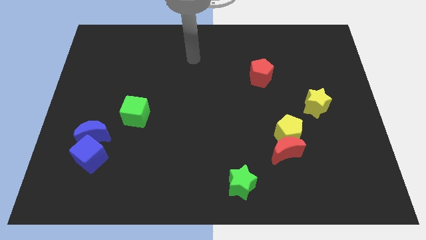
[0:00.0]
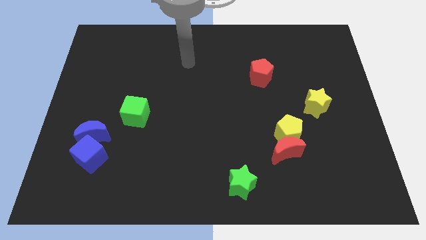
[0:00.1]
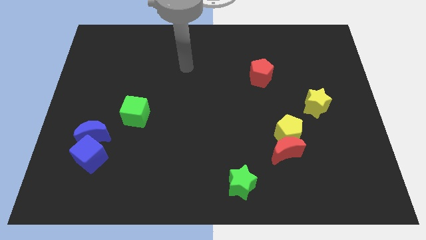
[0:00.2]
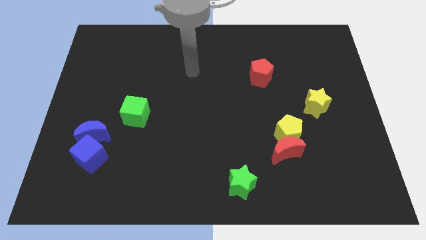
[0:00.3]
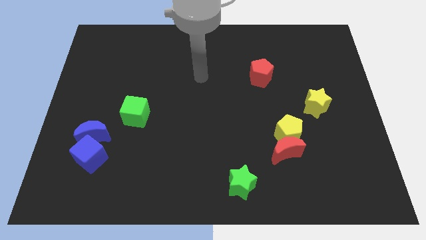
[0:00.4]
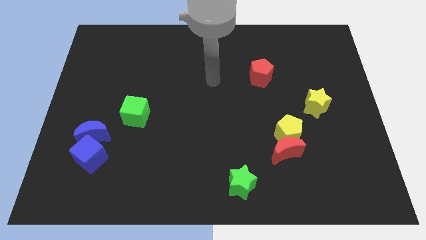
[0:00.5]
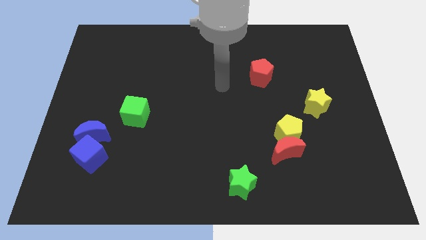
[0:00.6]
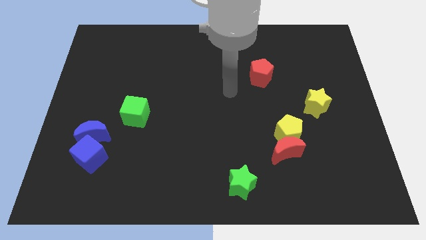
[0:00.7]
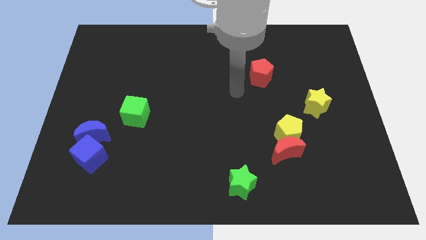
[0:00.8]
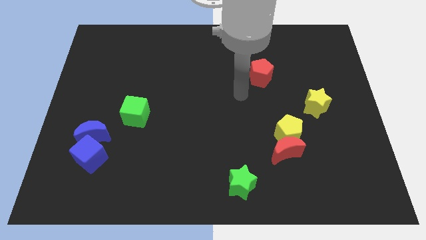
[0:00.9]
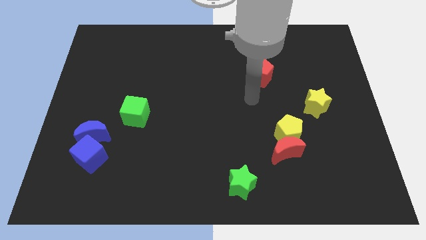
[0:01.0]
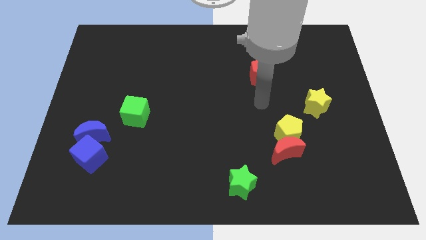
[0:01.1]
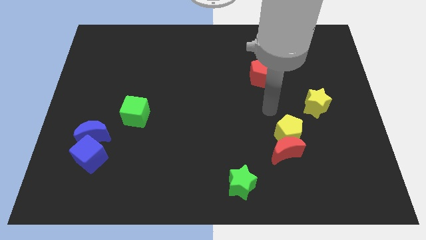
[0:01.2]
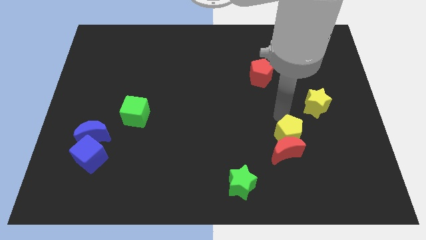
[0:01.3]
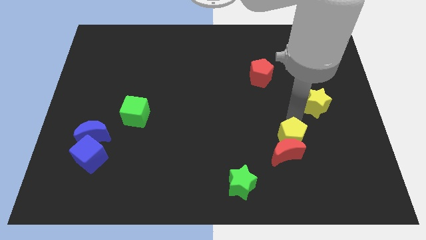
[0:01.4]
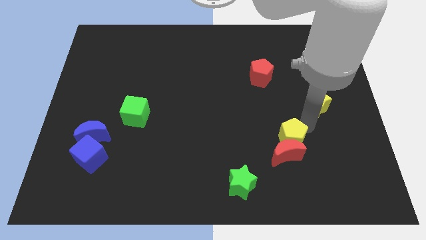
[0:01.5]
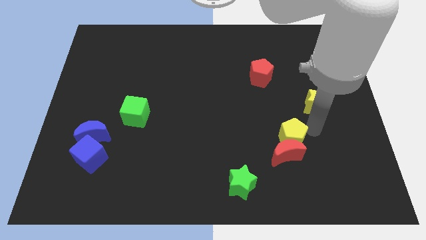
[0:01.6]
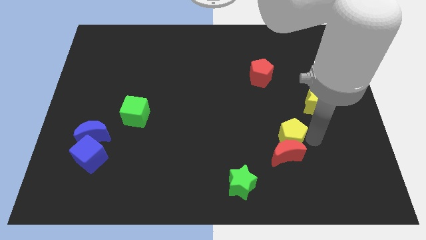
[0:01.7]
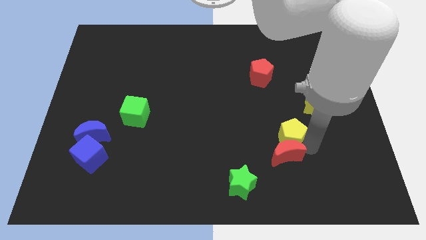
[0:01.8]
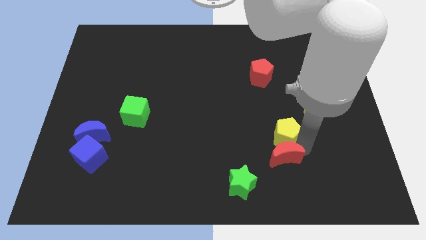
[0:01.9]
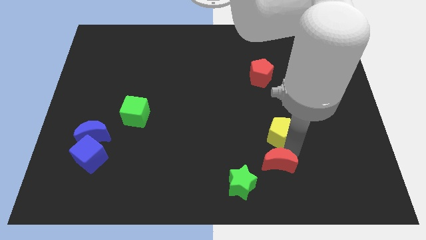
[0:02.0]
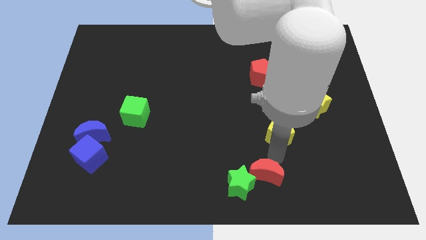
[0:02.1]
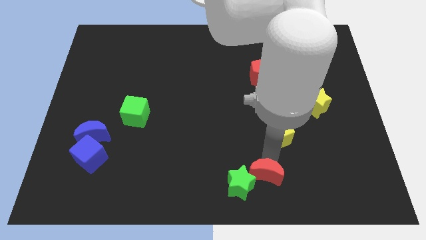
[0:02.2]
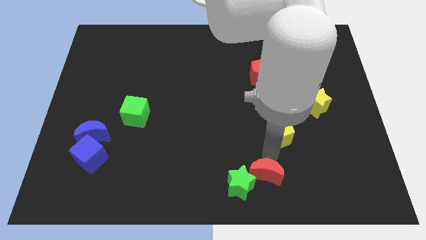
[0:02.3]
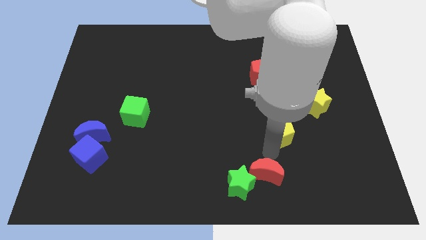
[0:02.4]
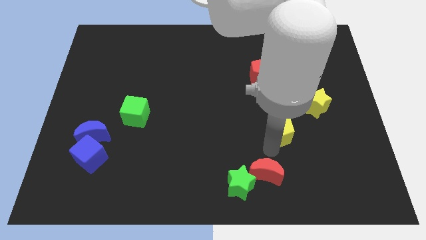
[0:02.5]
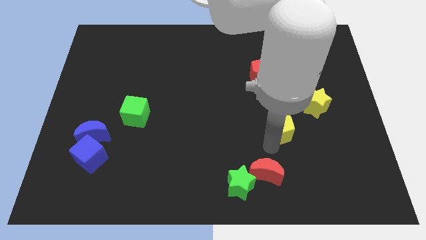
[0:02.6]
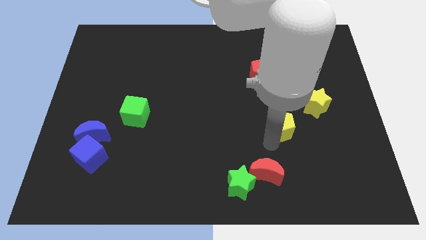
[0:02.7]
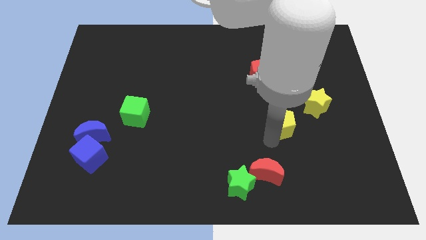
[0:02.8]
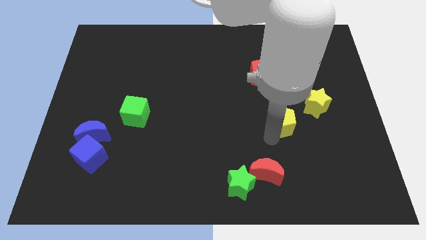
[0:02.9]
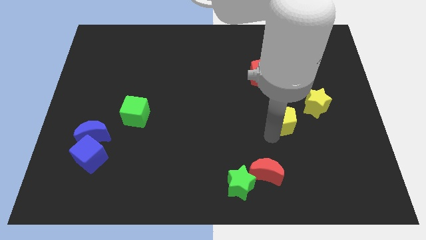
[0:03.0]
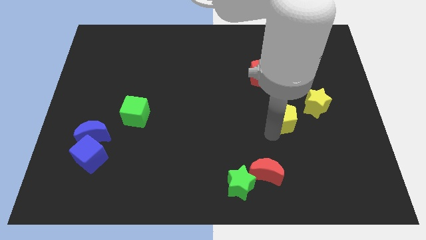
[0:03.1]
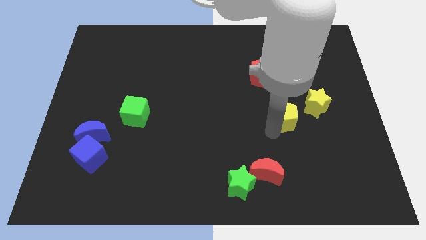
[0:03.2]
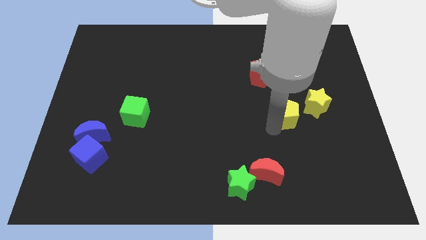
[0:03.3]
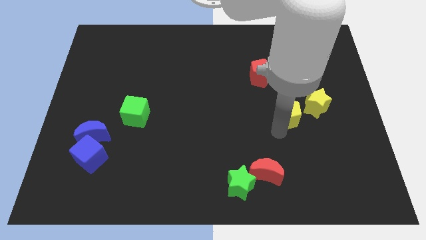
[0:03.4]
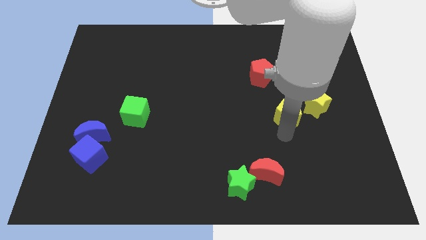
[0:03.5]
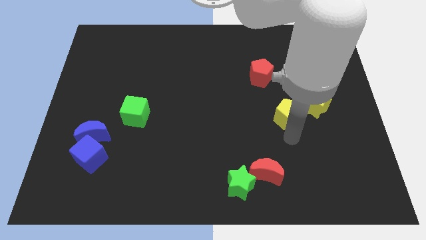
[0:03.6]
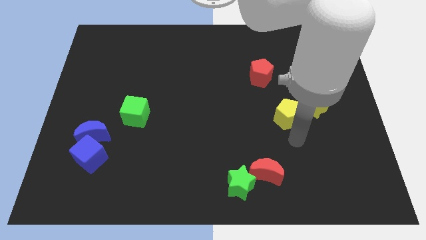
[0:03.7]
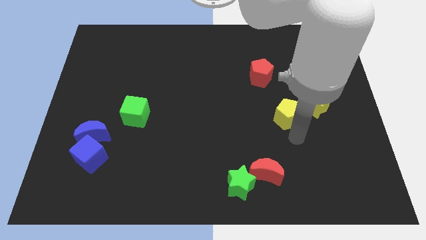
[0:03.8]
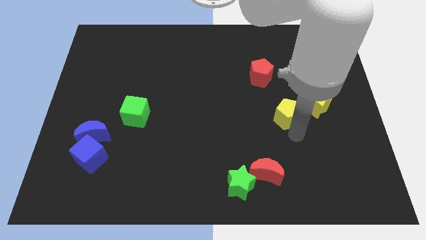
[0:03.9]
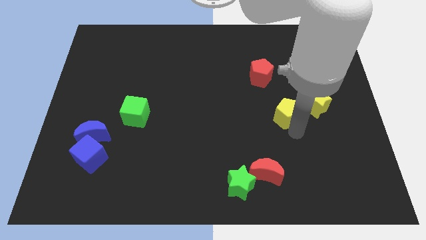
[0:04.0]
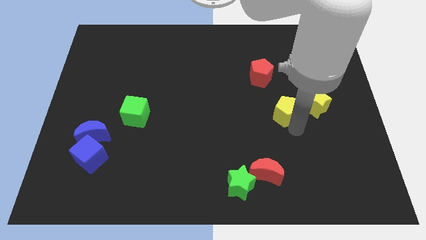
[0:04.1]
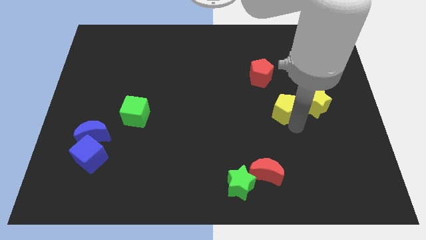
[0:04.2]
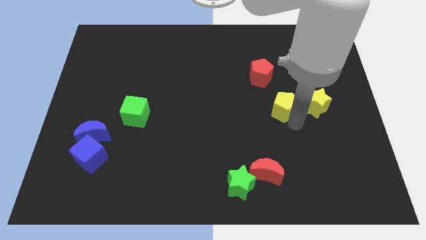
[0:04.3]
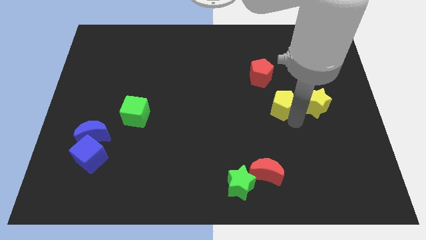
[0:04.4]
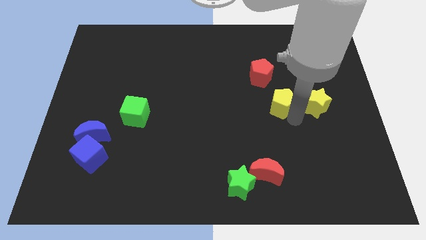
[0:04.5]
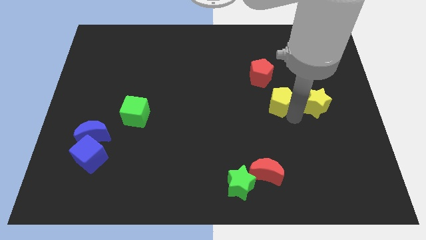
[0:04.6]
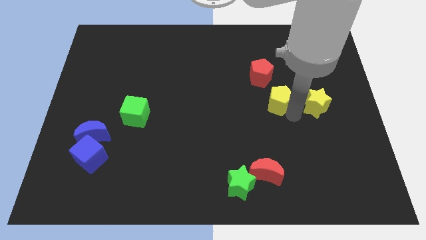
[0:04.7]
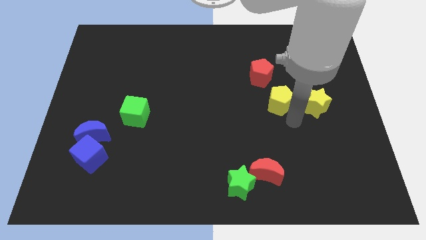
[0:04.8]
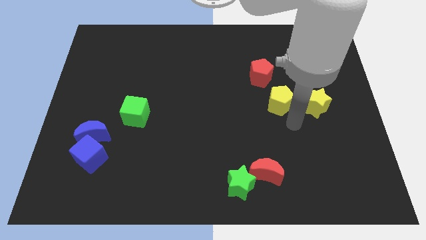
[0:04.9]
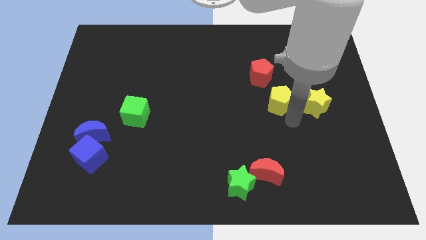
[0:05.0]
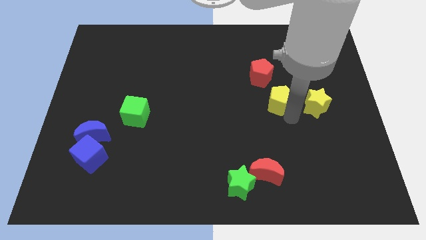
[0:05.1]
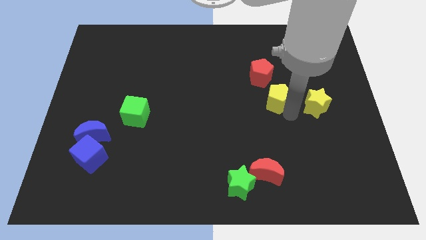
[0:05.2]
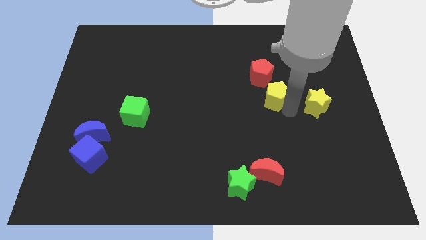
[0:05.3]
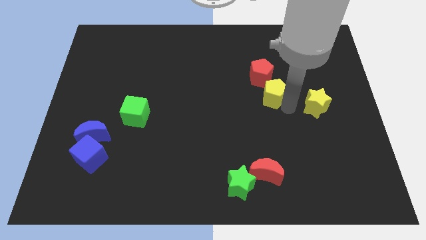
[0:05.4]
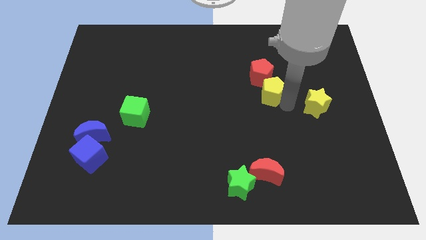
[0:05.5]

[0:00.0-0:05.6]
move the yellow pentagon to the red pentagon

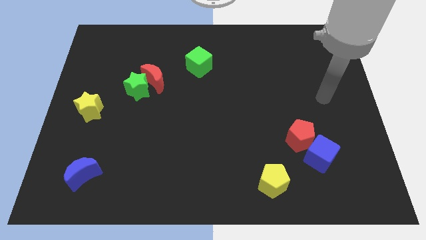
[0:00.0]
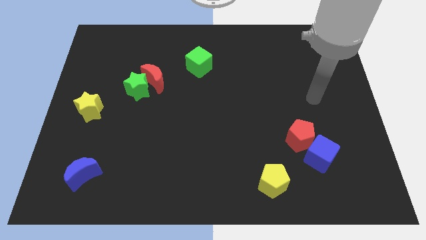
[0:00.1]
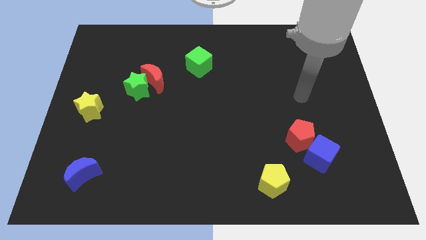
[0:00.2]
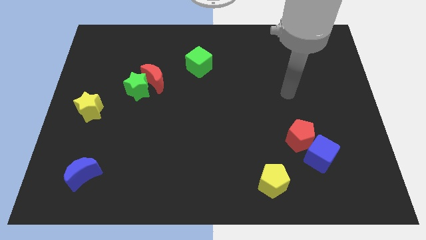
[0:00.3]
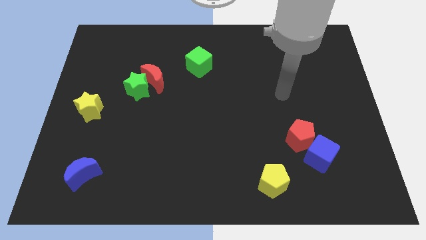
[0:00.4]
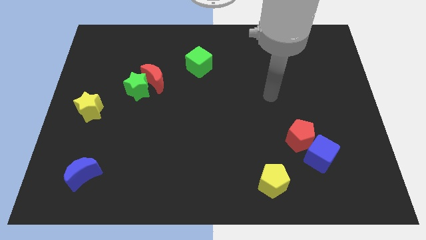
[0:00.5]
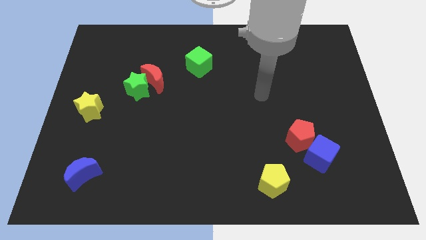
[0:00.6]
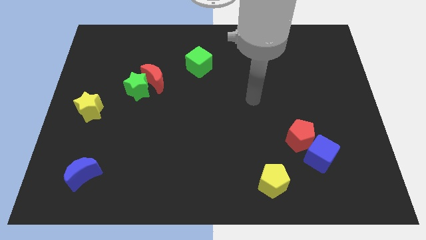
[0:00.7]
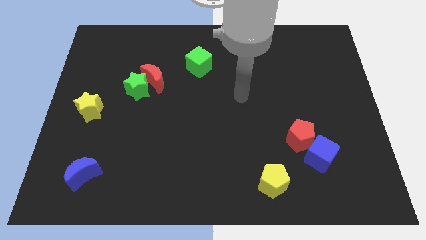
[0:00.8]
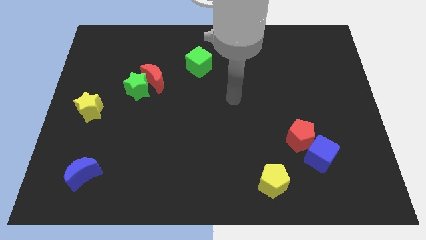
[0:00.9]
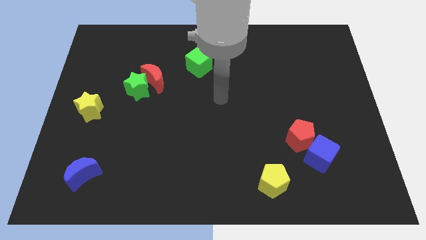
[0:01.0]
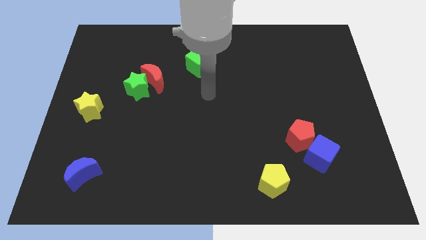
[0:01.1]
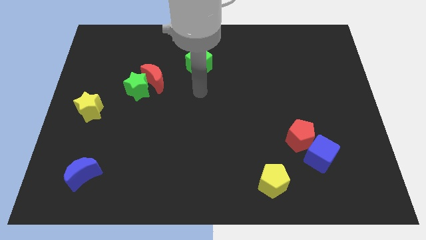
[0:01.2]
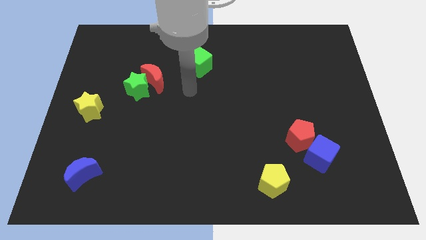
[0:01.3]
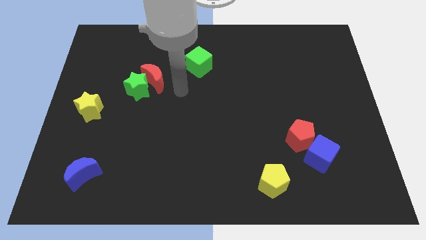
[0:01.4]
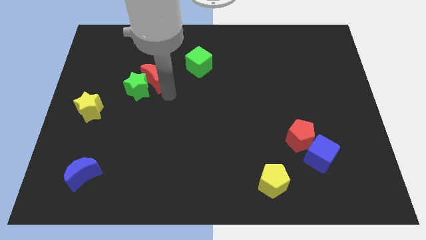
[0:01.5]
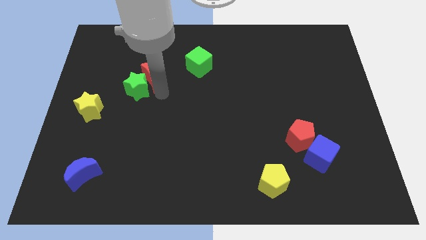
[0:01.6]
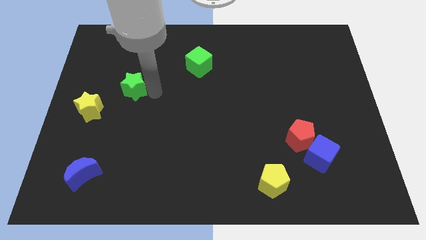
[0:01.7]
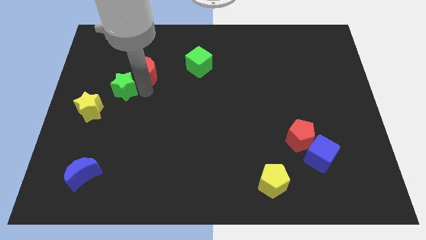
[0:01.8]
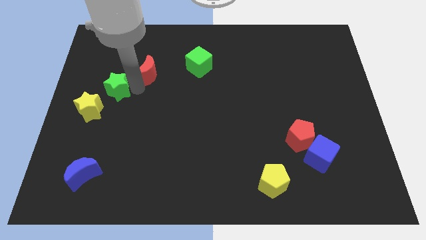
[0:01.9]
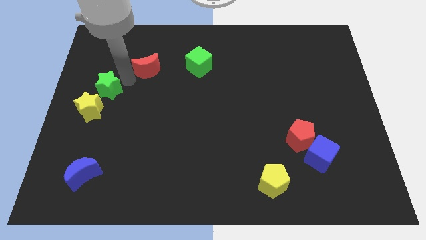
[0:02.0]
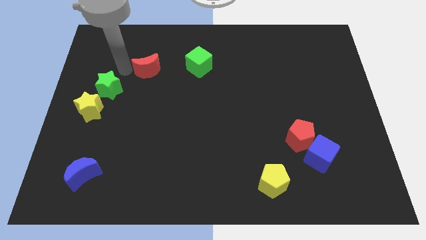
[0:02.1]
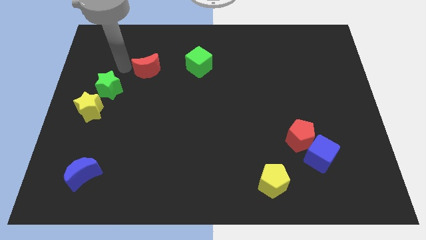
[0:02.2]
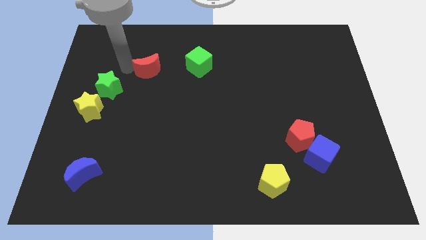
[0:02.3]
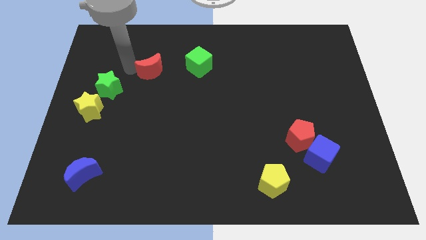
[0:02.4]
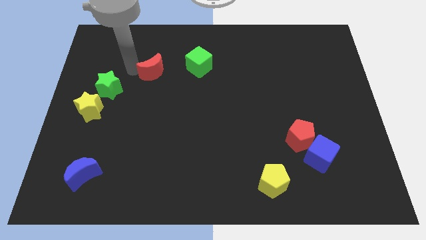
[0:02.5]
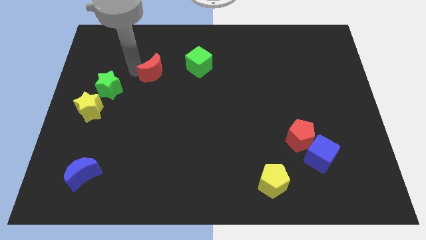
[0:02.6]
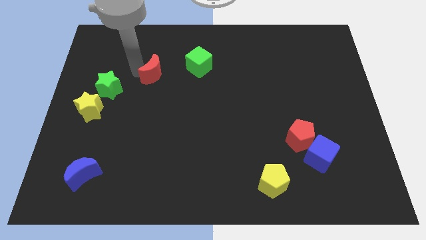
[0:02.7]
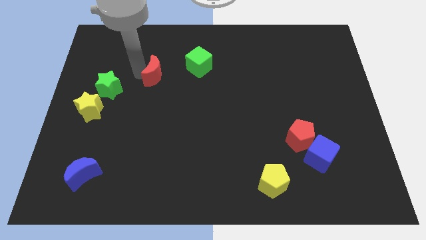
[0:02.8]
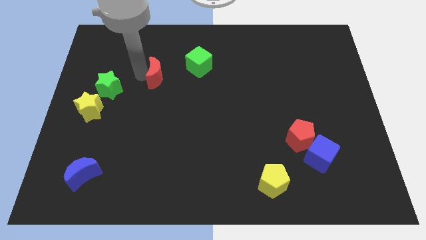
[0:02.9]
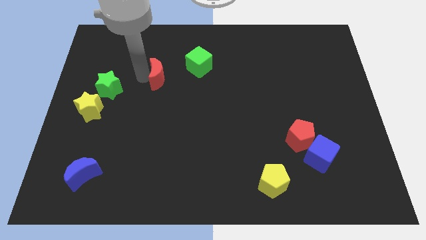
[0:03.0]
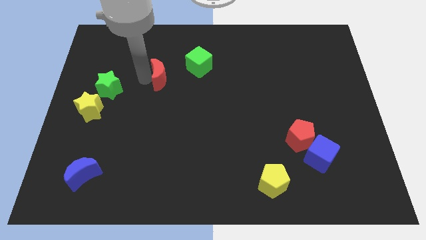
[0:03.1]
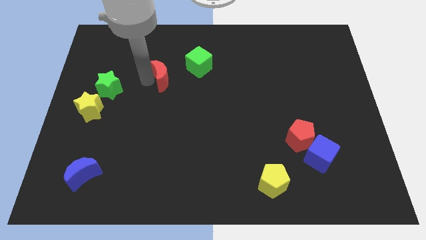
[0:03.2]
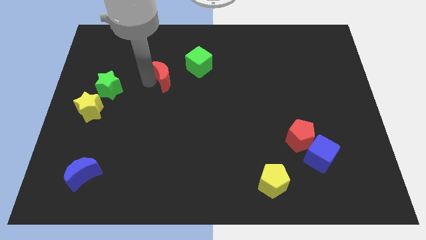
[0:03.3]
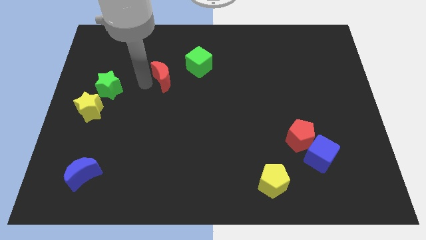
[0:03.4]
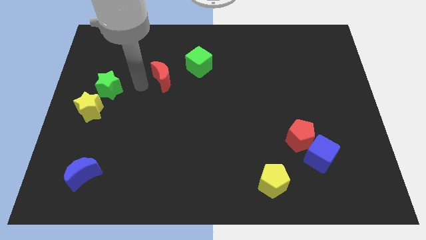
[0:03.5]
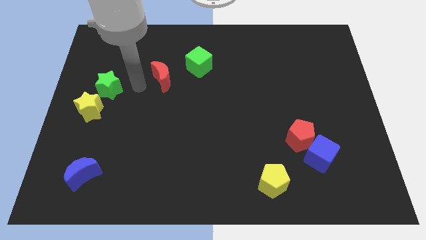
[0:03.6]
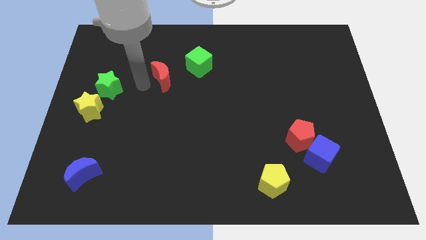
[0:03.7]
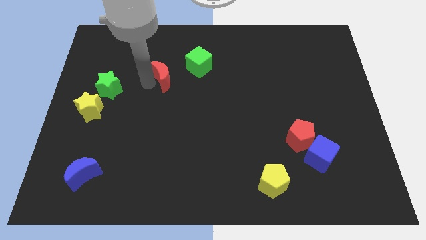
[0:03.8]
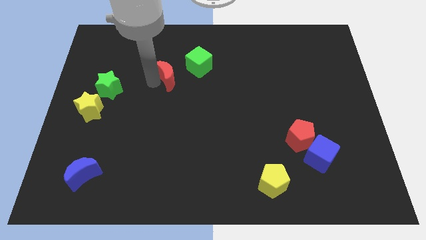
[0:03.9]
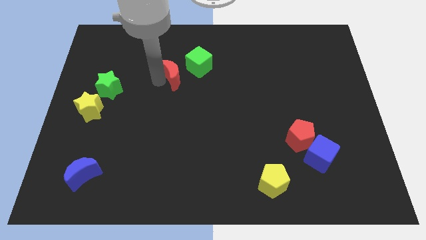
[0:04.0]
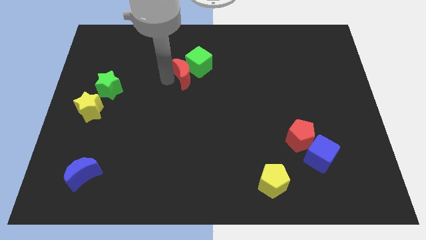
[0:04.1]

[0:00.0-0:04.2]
put the red moon close to the green cube
